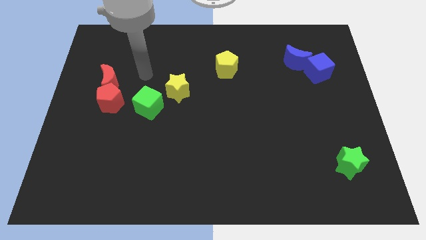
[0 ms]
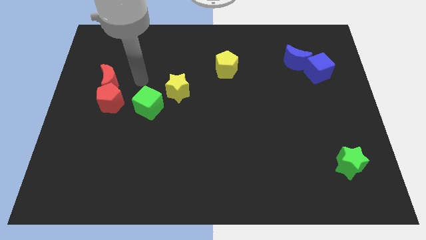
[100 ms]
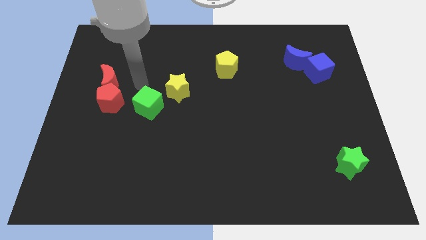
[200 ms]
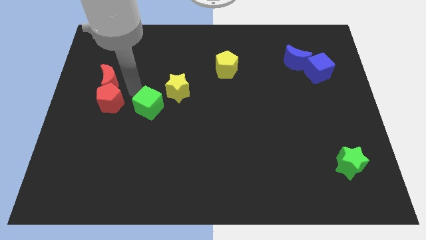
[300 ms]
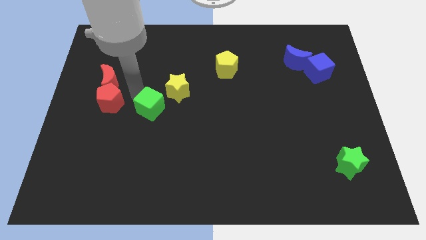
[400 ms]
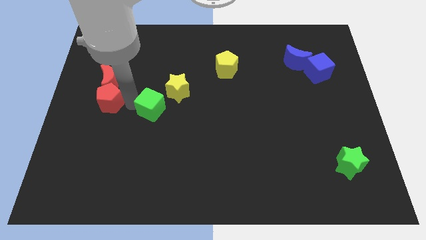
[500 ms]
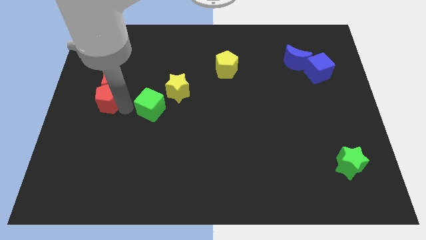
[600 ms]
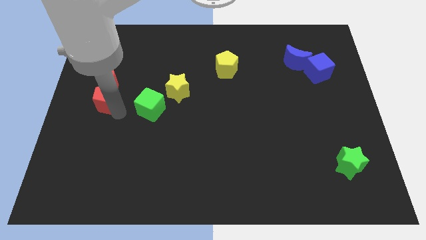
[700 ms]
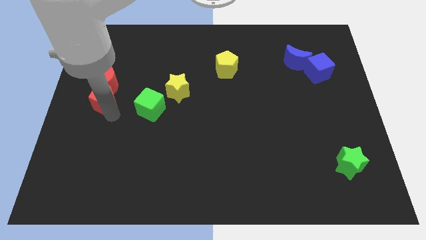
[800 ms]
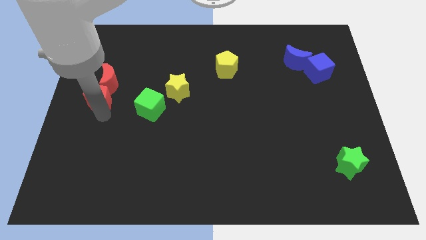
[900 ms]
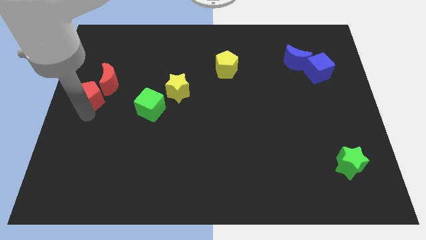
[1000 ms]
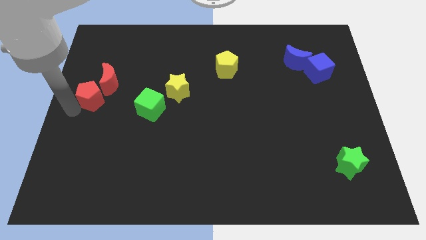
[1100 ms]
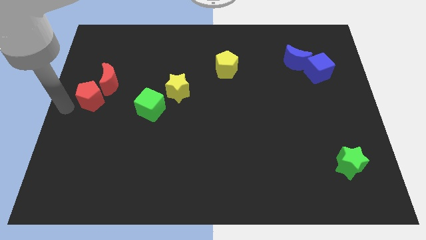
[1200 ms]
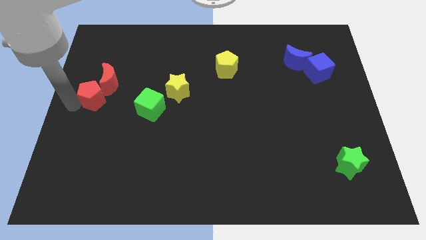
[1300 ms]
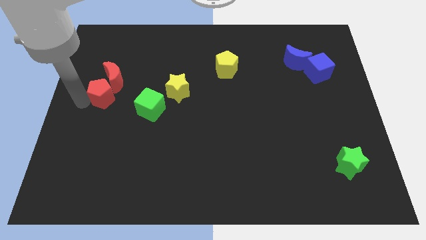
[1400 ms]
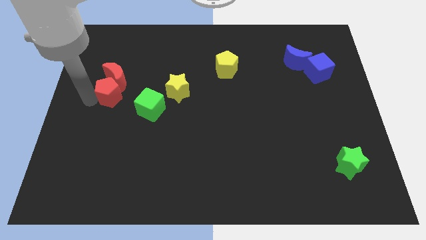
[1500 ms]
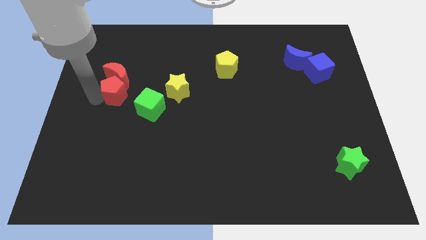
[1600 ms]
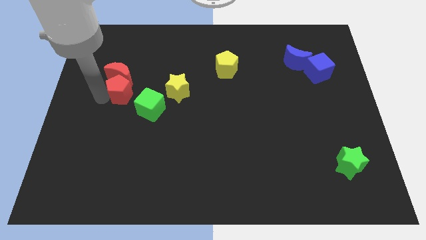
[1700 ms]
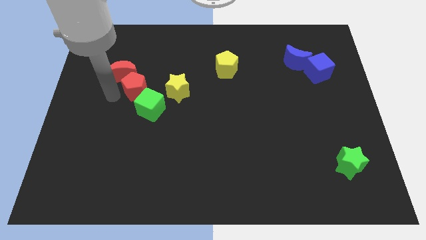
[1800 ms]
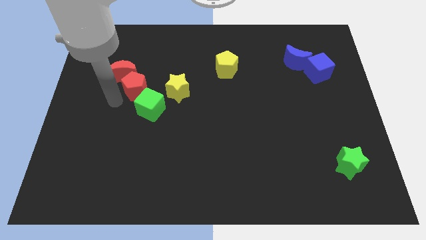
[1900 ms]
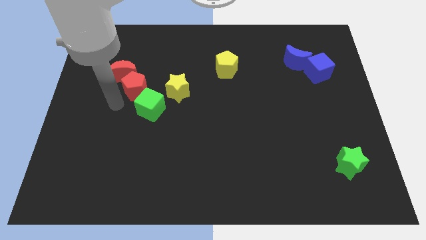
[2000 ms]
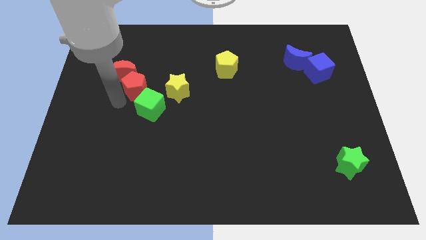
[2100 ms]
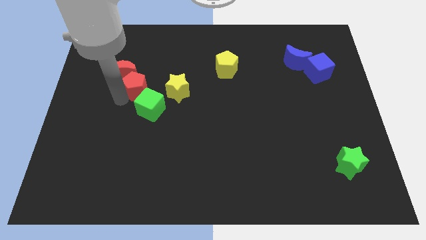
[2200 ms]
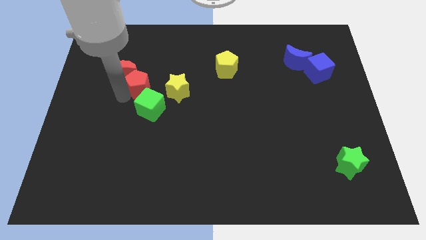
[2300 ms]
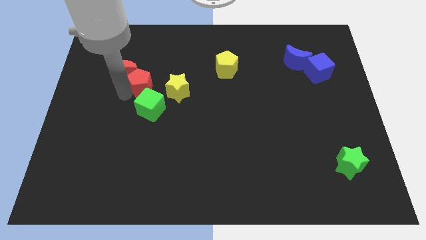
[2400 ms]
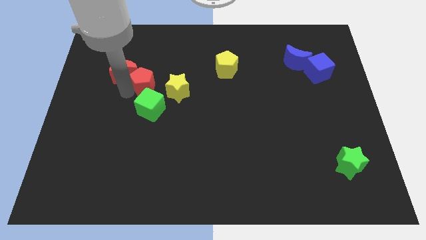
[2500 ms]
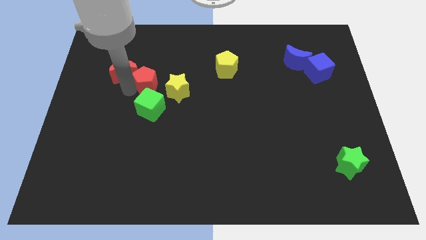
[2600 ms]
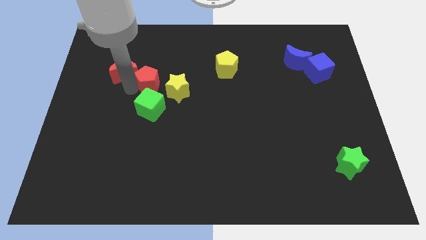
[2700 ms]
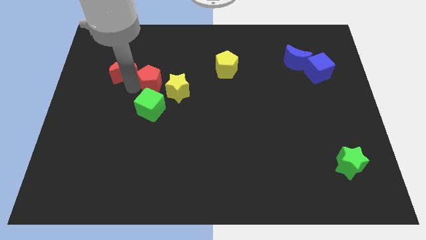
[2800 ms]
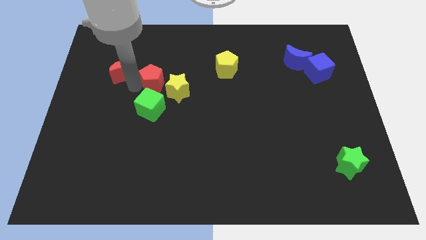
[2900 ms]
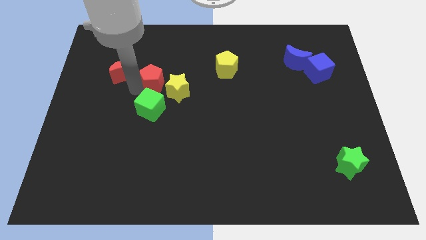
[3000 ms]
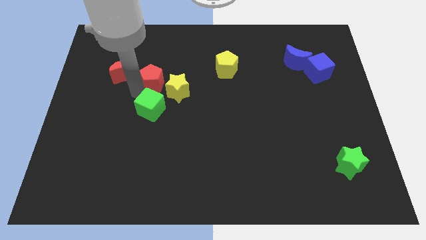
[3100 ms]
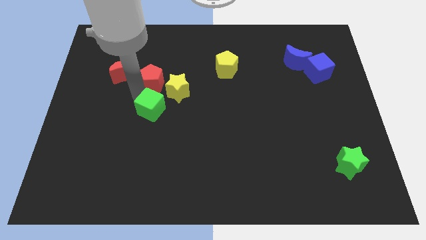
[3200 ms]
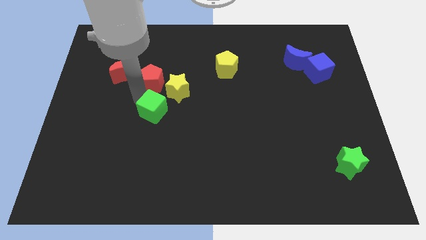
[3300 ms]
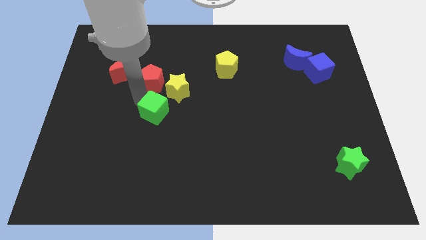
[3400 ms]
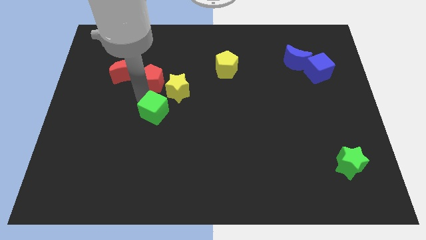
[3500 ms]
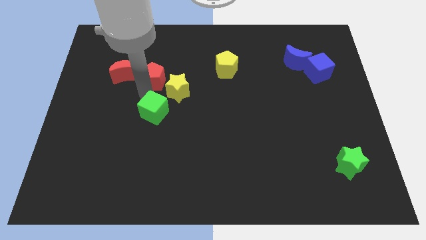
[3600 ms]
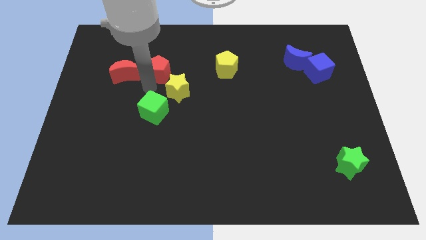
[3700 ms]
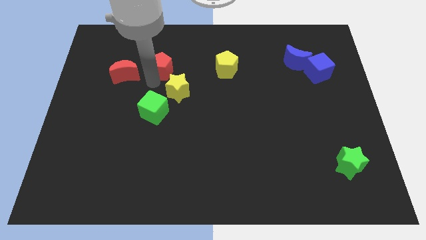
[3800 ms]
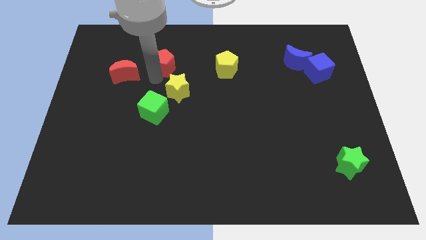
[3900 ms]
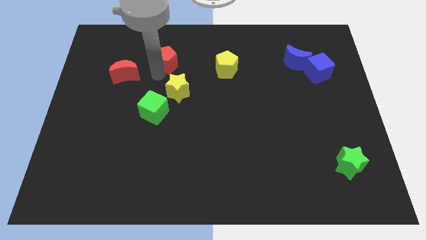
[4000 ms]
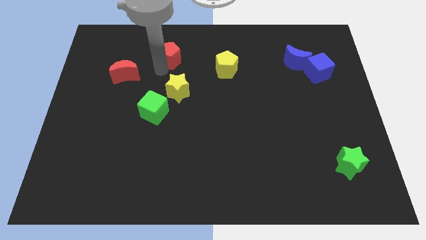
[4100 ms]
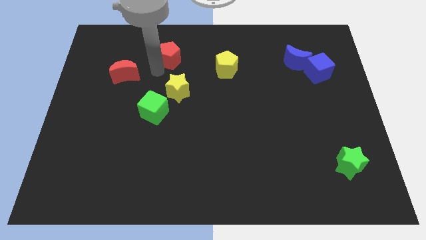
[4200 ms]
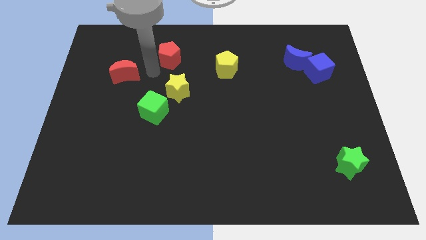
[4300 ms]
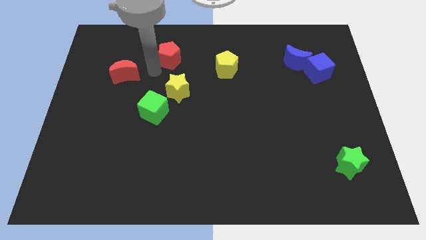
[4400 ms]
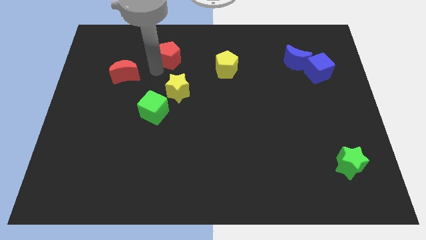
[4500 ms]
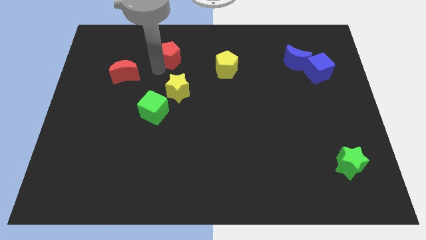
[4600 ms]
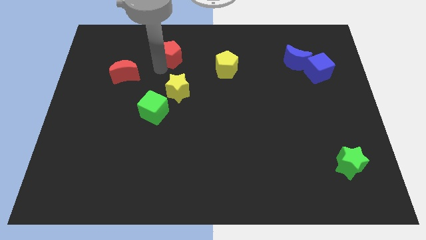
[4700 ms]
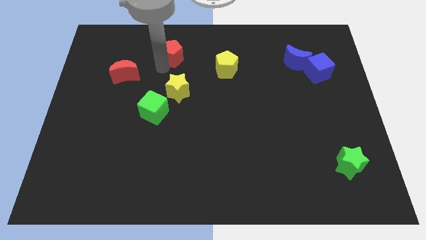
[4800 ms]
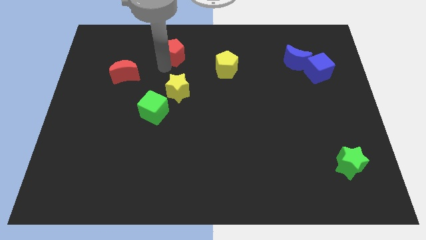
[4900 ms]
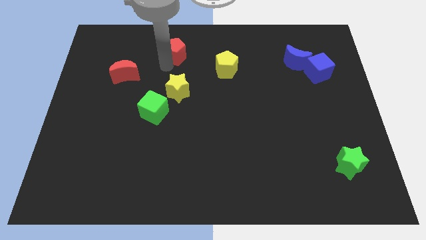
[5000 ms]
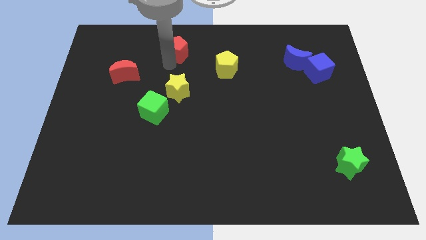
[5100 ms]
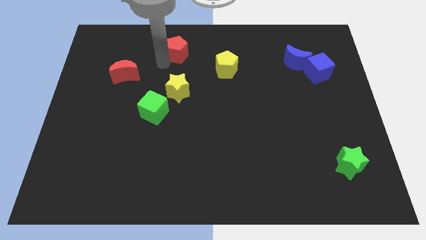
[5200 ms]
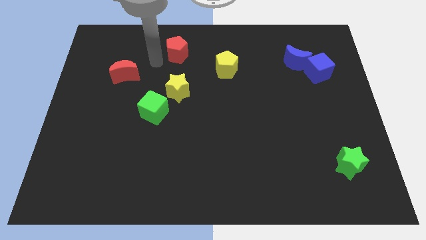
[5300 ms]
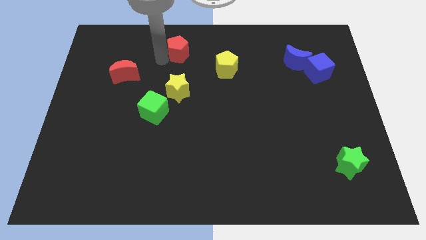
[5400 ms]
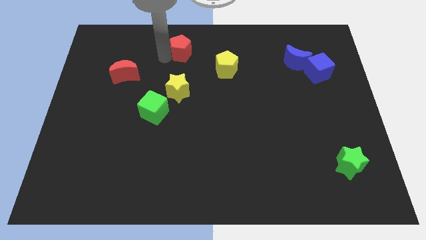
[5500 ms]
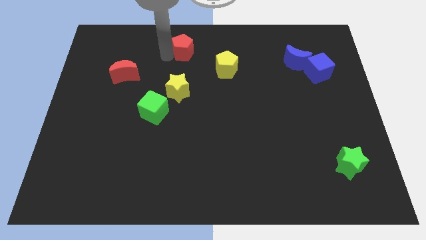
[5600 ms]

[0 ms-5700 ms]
move the red pentagon to the towards your base
